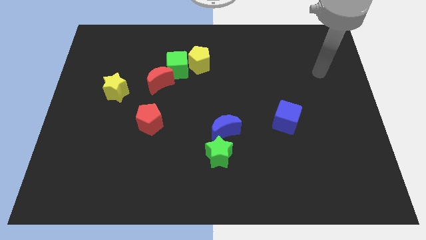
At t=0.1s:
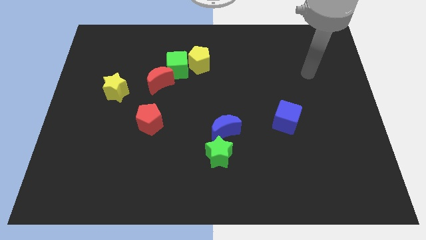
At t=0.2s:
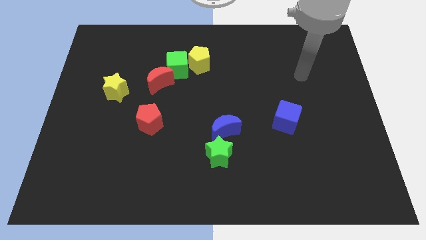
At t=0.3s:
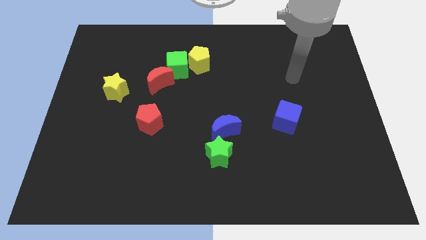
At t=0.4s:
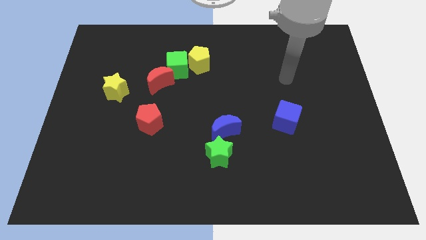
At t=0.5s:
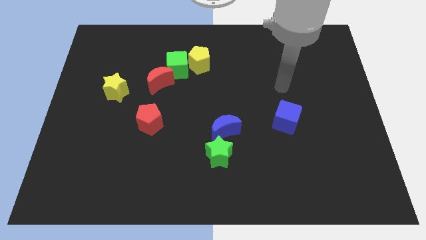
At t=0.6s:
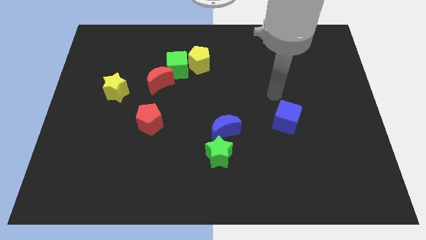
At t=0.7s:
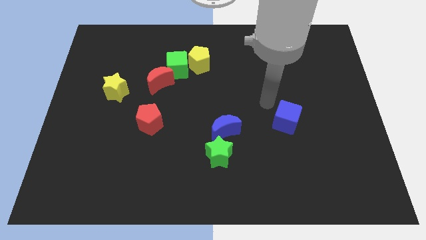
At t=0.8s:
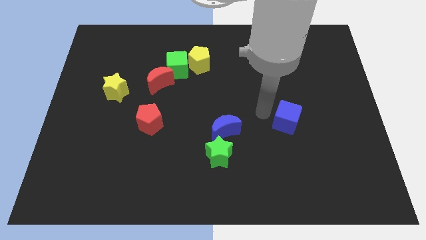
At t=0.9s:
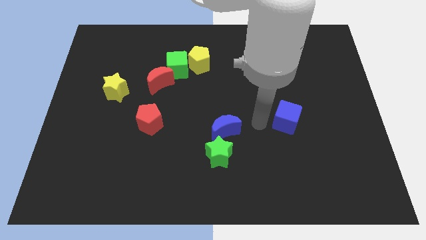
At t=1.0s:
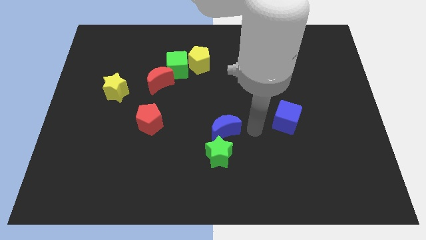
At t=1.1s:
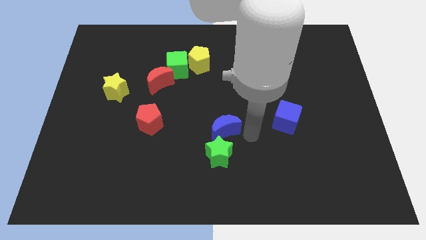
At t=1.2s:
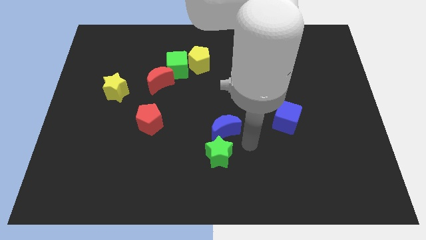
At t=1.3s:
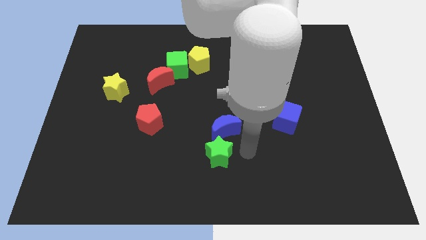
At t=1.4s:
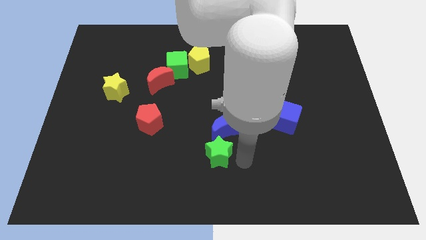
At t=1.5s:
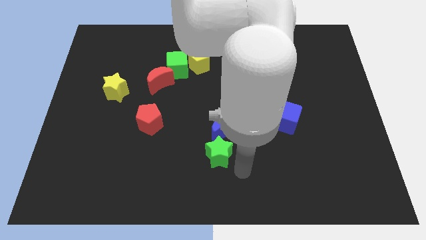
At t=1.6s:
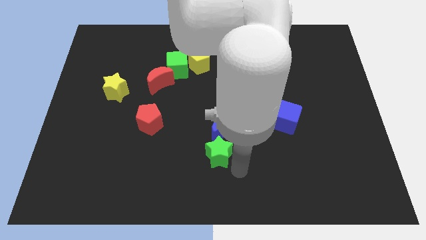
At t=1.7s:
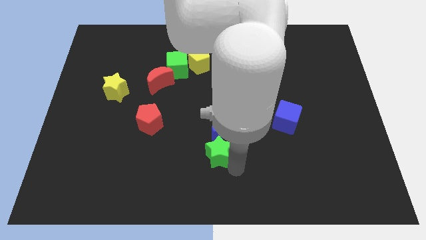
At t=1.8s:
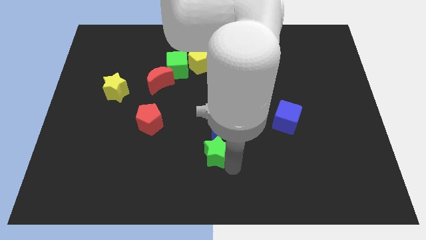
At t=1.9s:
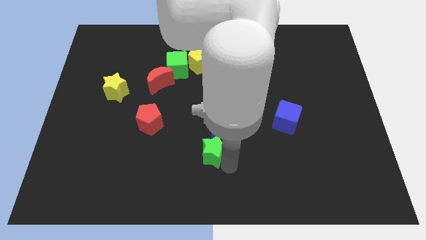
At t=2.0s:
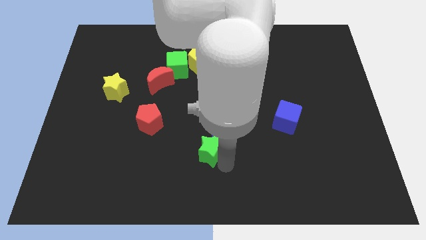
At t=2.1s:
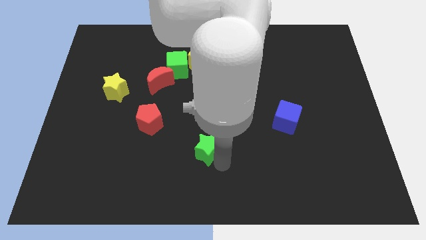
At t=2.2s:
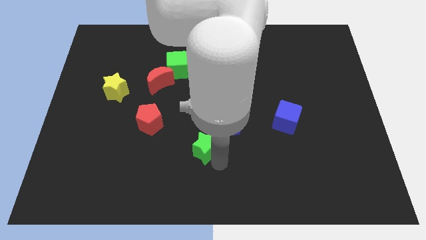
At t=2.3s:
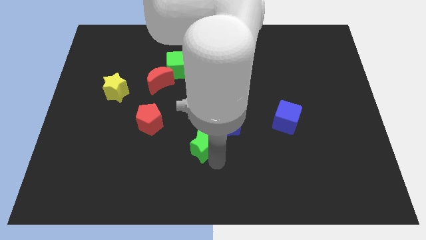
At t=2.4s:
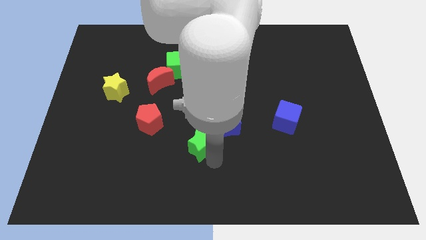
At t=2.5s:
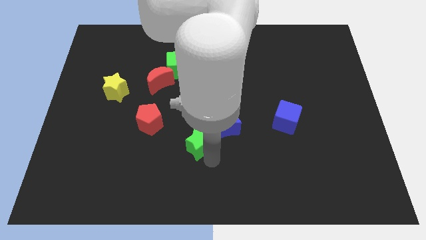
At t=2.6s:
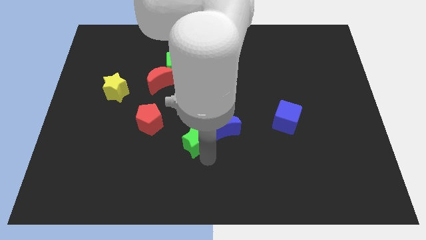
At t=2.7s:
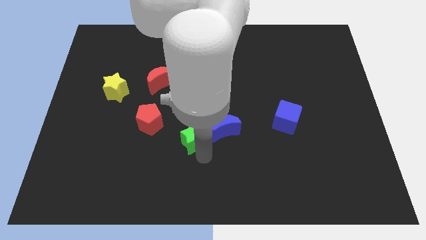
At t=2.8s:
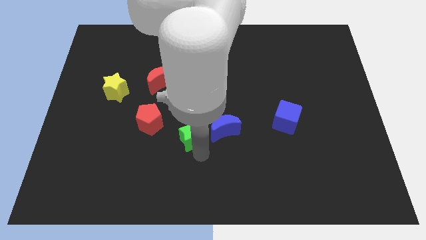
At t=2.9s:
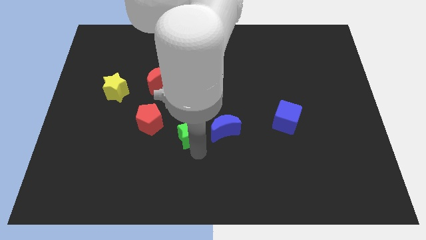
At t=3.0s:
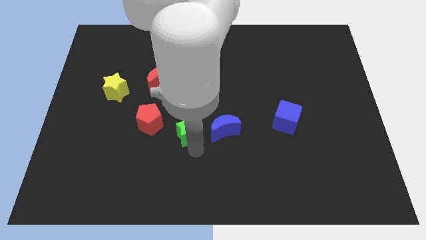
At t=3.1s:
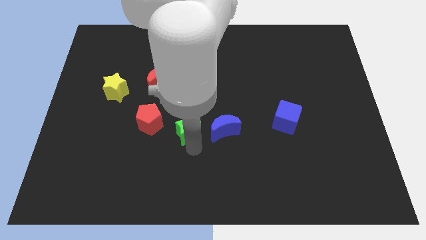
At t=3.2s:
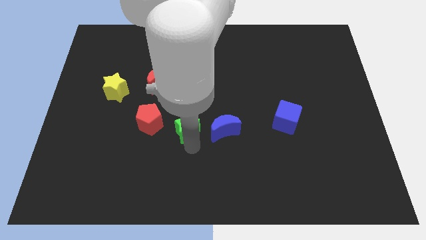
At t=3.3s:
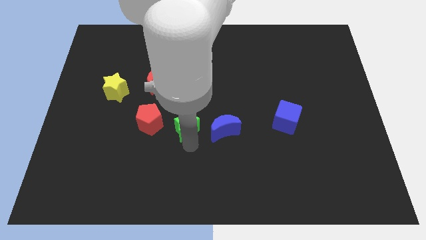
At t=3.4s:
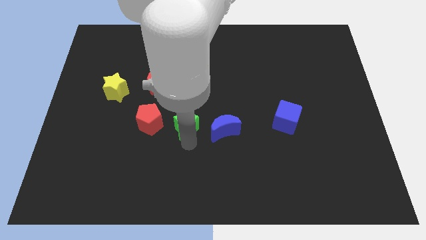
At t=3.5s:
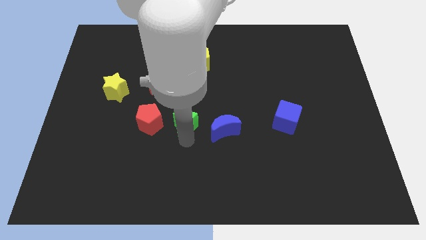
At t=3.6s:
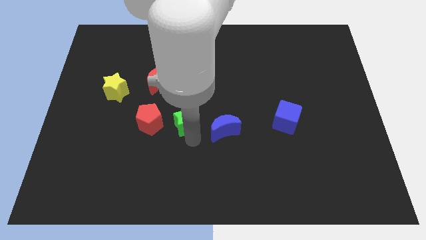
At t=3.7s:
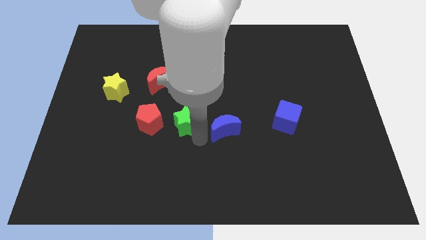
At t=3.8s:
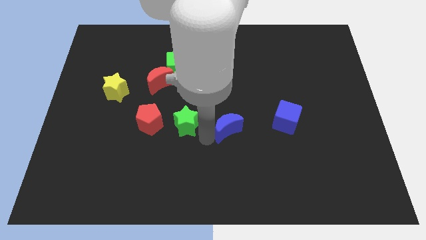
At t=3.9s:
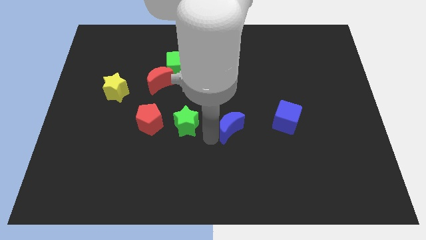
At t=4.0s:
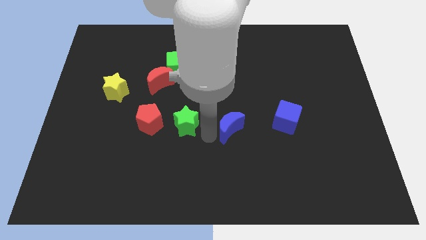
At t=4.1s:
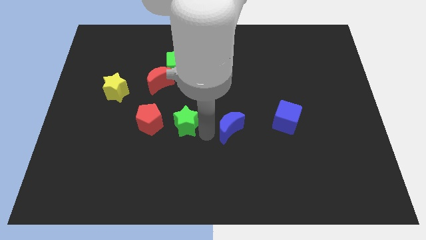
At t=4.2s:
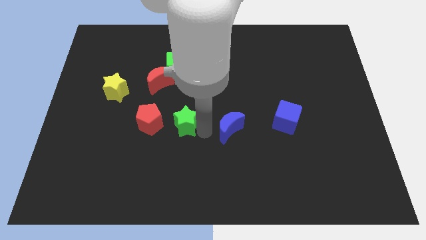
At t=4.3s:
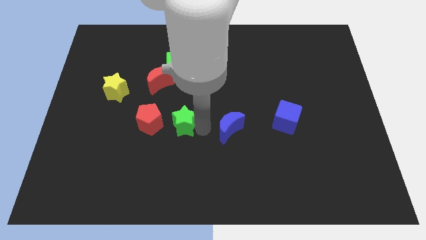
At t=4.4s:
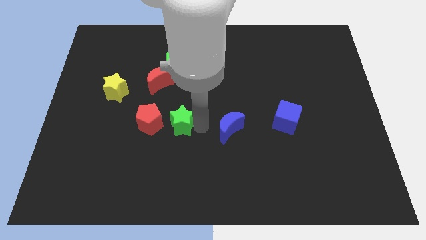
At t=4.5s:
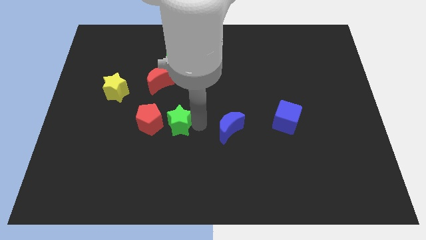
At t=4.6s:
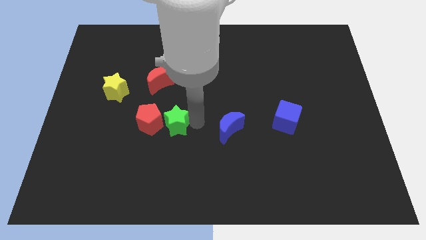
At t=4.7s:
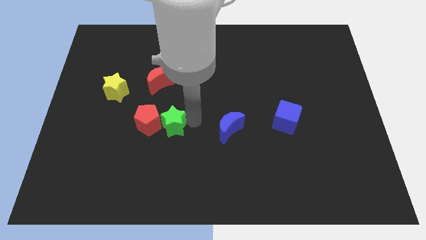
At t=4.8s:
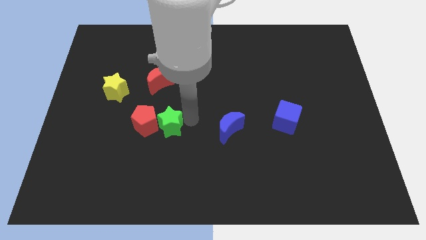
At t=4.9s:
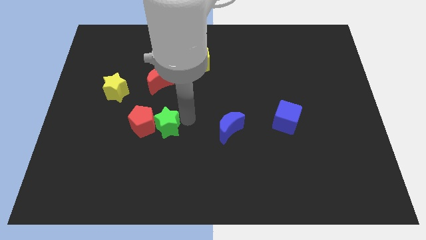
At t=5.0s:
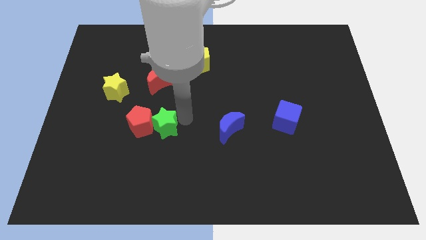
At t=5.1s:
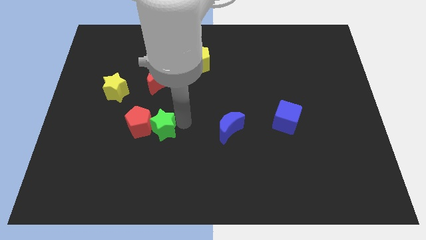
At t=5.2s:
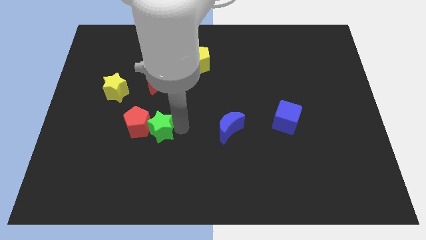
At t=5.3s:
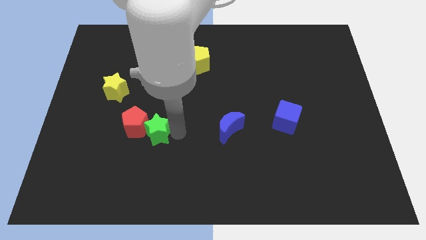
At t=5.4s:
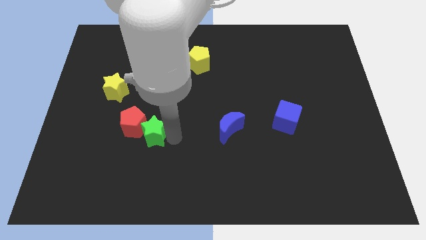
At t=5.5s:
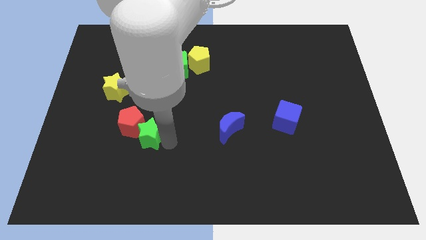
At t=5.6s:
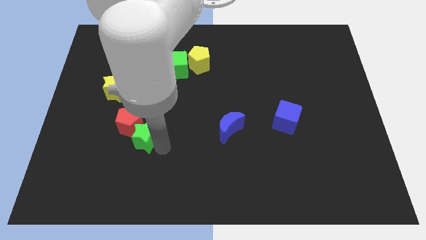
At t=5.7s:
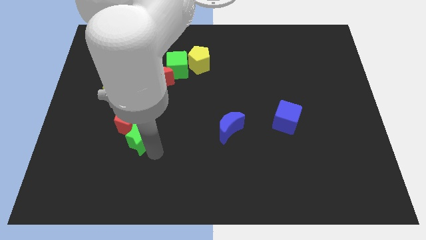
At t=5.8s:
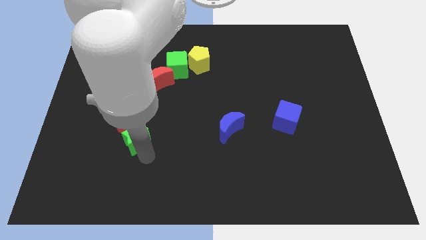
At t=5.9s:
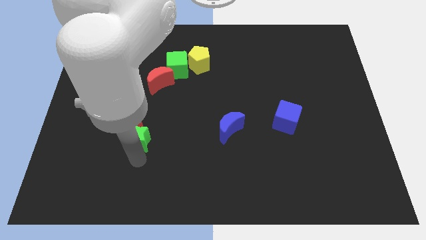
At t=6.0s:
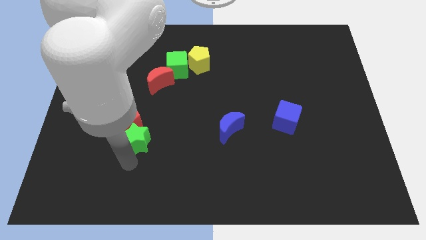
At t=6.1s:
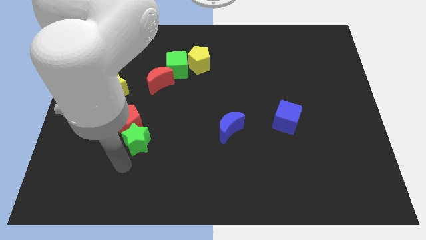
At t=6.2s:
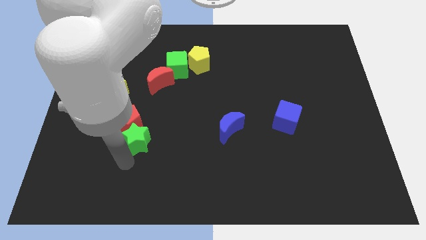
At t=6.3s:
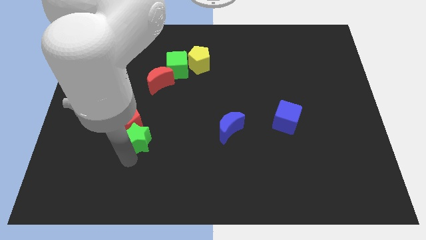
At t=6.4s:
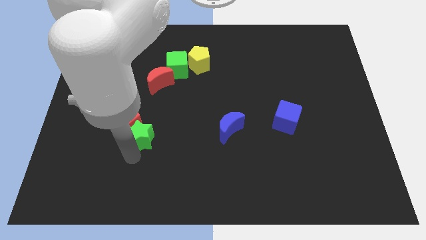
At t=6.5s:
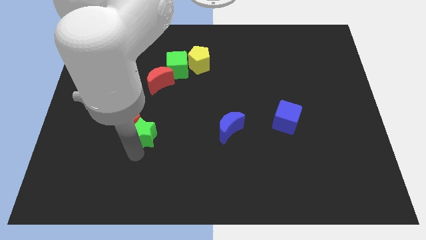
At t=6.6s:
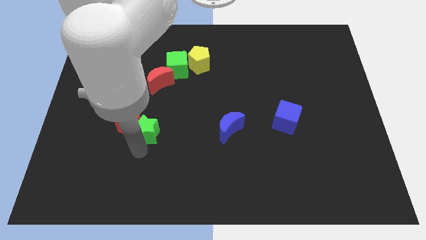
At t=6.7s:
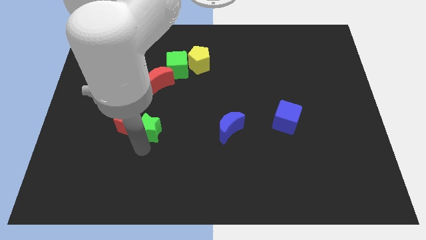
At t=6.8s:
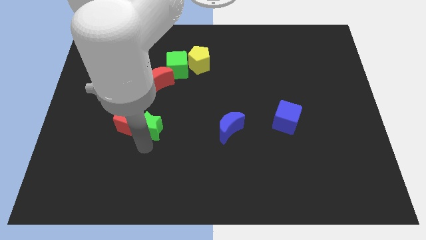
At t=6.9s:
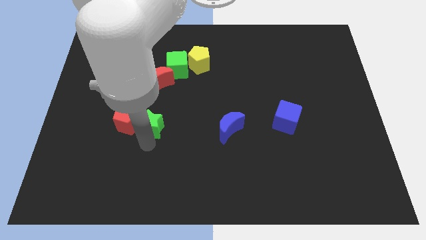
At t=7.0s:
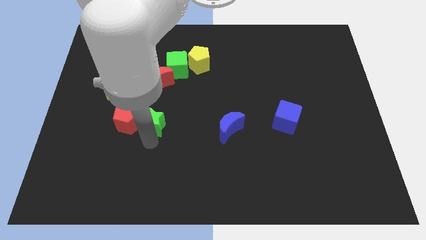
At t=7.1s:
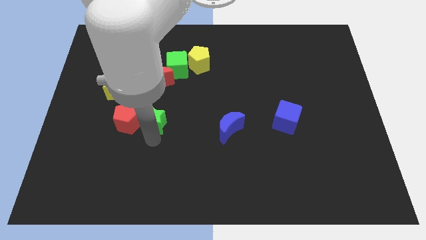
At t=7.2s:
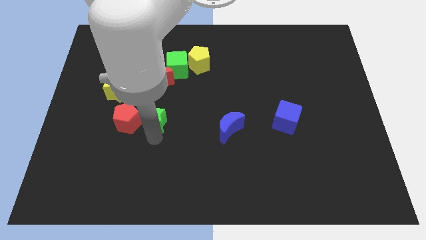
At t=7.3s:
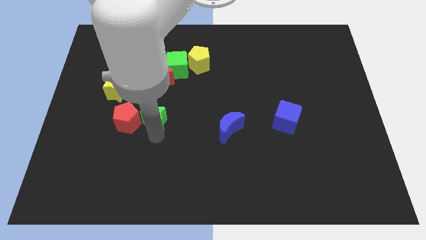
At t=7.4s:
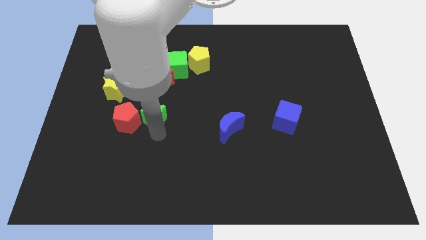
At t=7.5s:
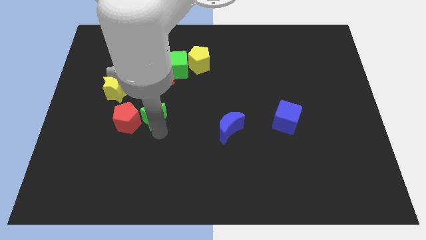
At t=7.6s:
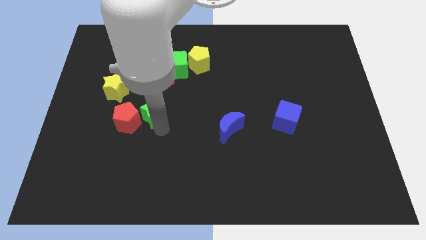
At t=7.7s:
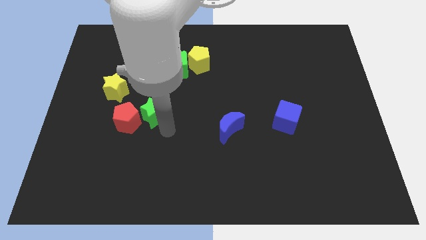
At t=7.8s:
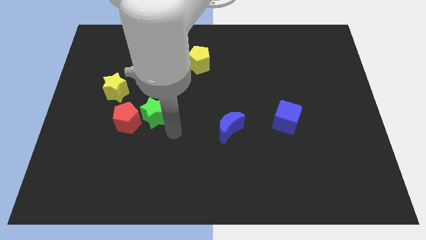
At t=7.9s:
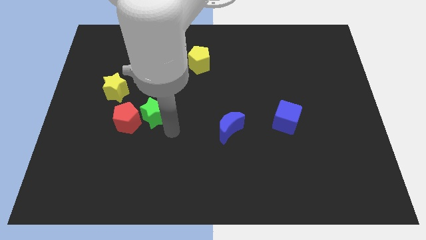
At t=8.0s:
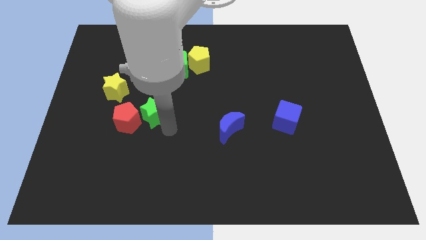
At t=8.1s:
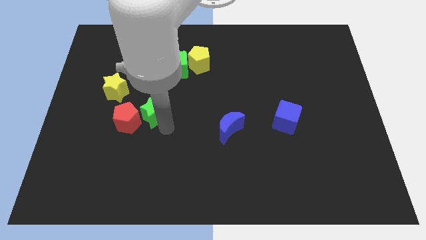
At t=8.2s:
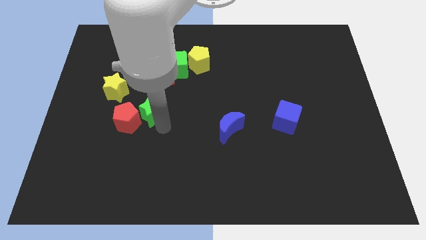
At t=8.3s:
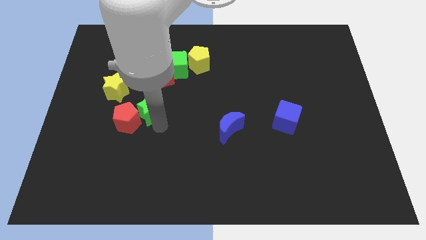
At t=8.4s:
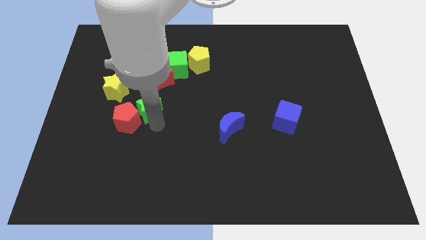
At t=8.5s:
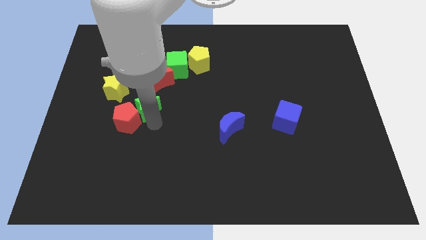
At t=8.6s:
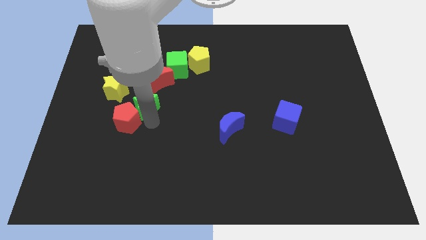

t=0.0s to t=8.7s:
slide the green star diagonally down and to the left of the red moon
